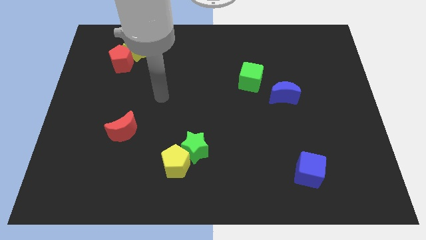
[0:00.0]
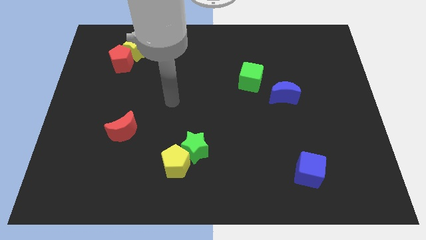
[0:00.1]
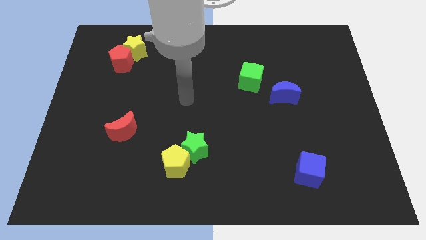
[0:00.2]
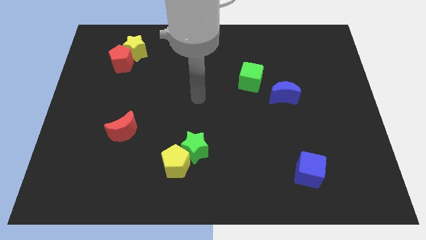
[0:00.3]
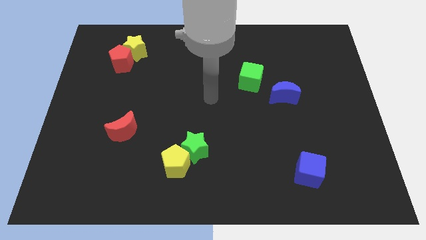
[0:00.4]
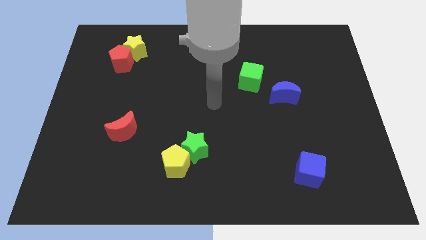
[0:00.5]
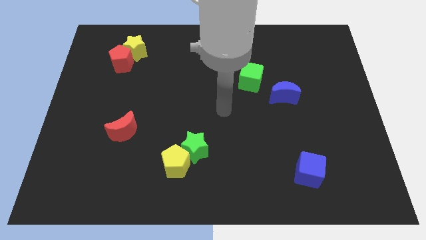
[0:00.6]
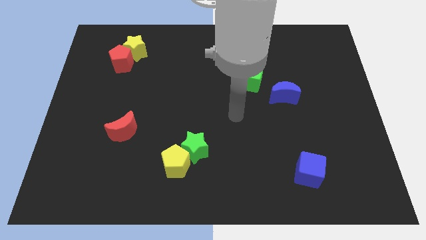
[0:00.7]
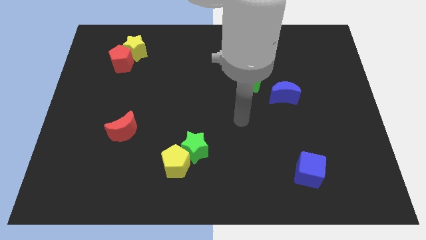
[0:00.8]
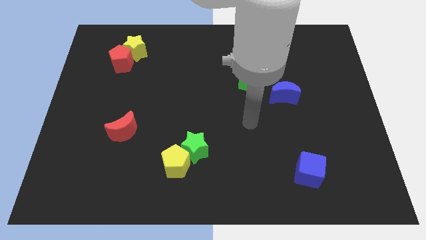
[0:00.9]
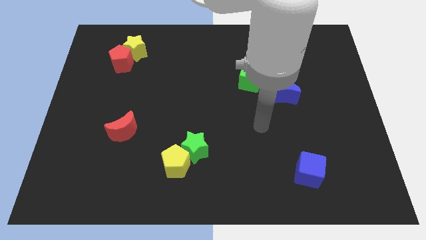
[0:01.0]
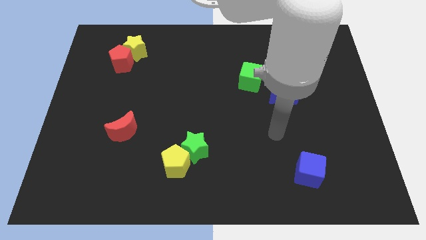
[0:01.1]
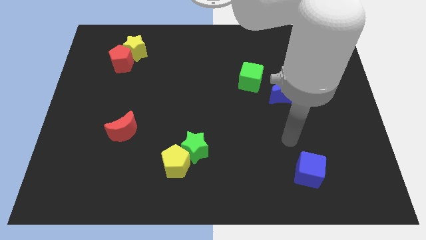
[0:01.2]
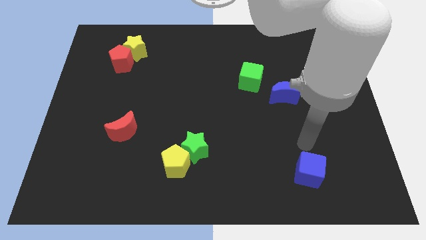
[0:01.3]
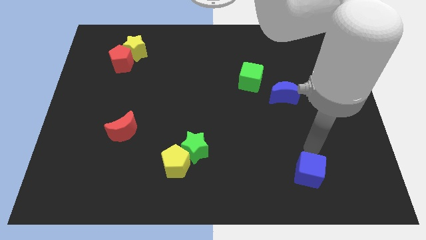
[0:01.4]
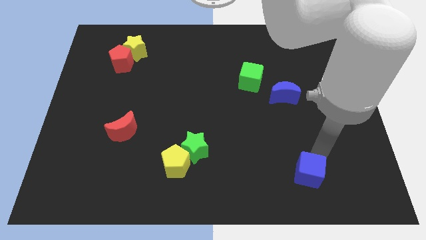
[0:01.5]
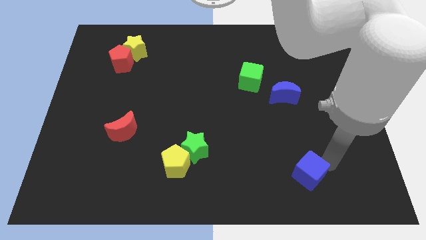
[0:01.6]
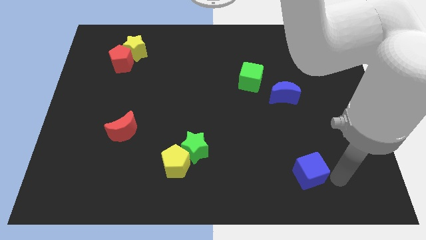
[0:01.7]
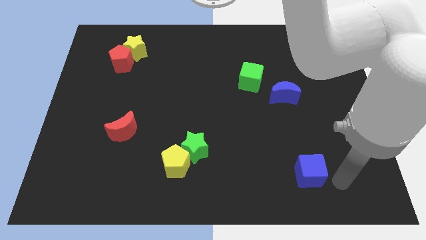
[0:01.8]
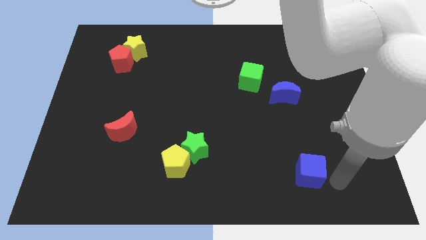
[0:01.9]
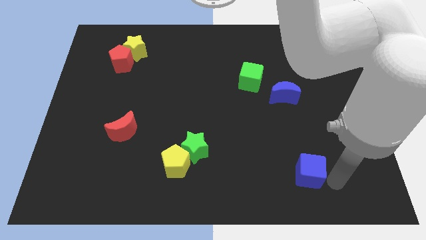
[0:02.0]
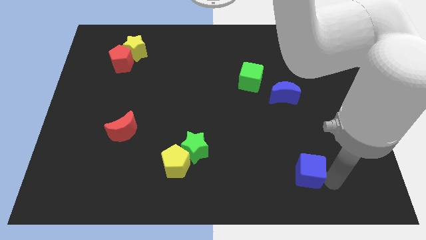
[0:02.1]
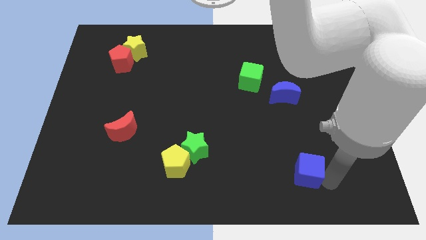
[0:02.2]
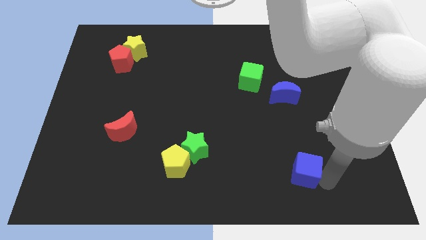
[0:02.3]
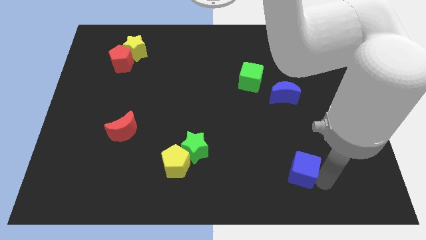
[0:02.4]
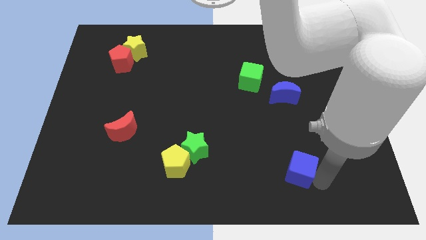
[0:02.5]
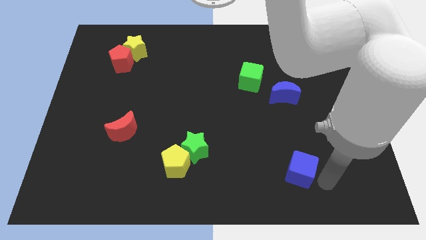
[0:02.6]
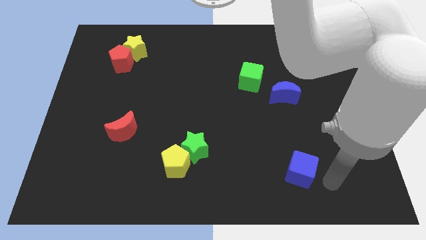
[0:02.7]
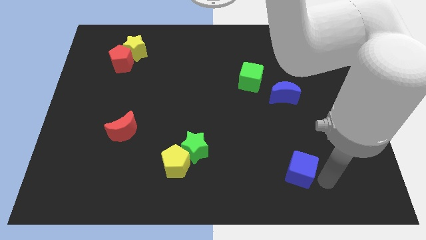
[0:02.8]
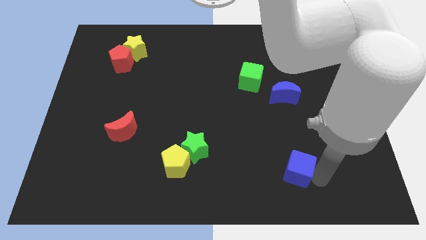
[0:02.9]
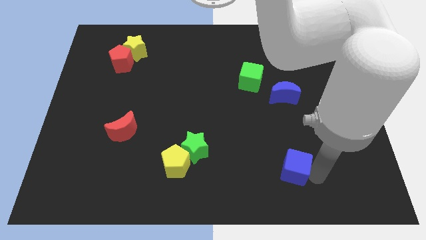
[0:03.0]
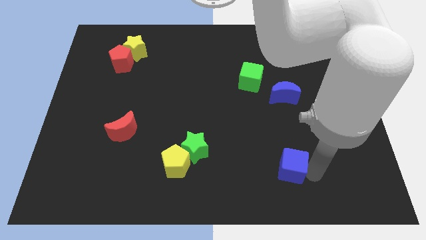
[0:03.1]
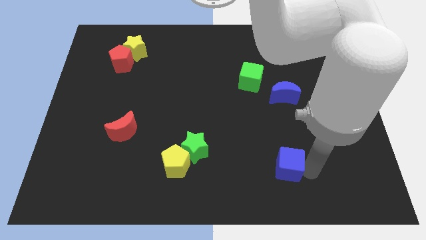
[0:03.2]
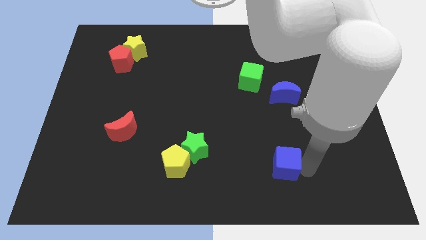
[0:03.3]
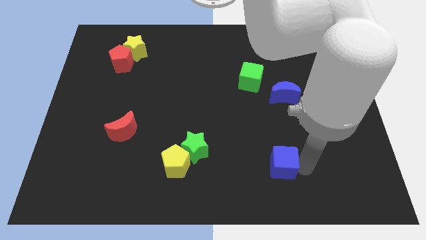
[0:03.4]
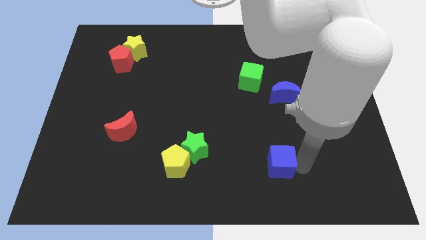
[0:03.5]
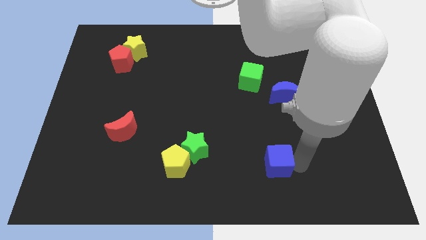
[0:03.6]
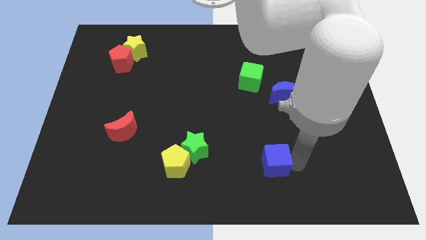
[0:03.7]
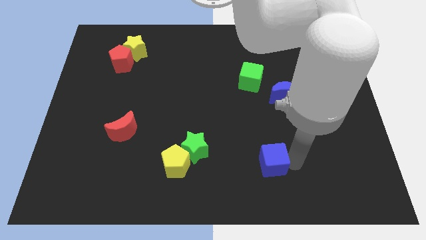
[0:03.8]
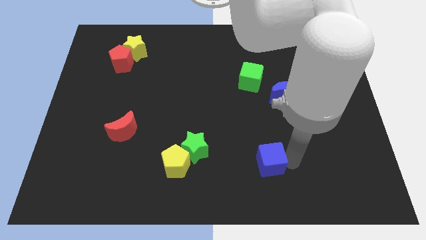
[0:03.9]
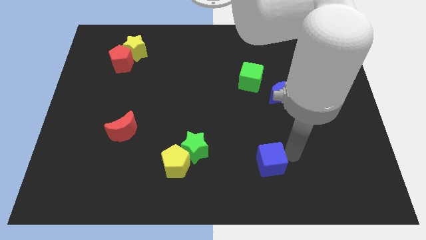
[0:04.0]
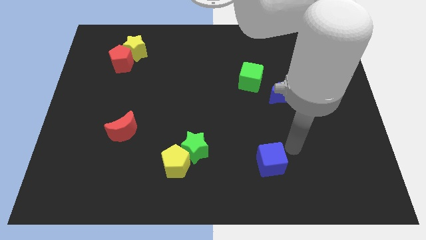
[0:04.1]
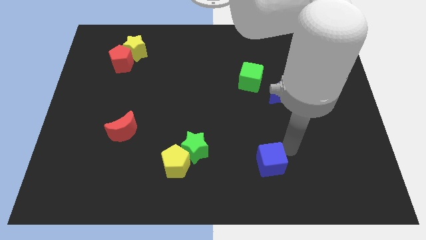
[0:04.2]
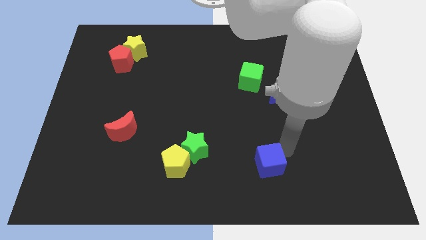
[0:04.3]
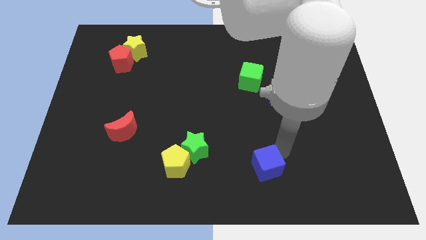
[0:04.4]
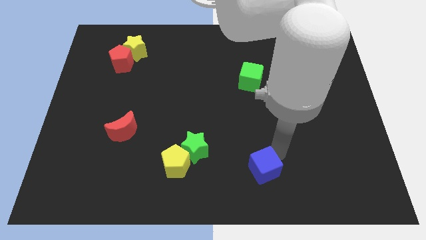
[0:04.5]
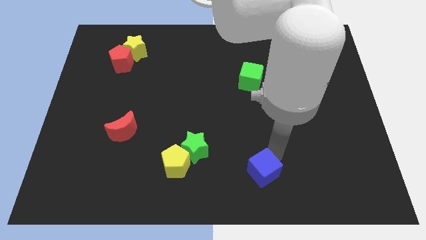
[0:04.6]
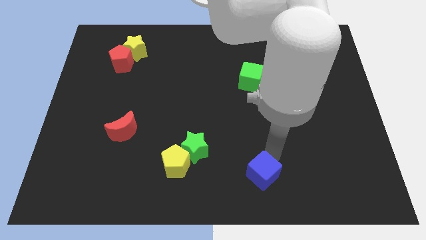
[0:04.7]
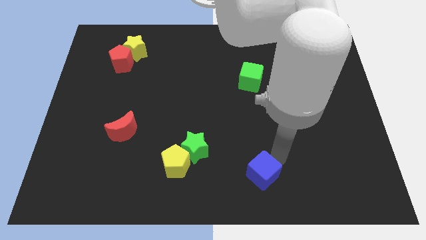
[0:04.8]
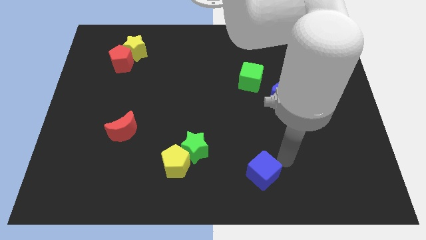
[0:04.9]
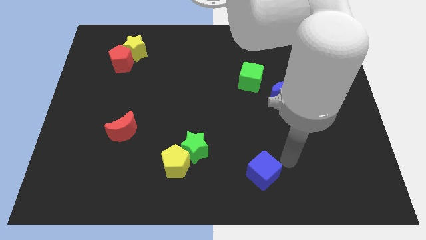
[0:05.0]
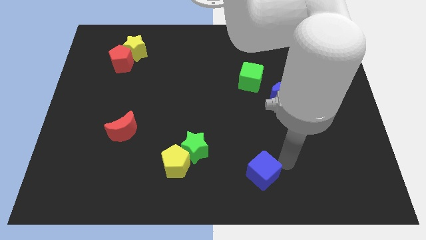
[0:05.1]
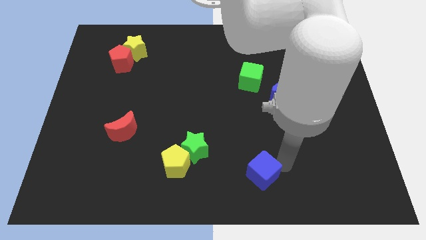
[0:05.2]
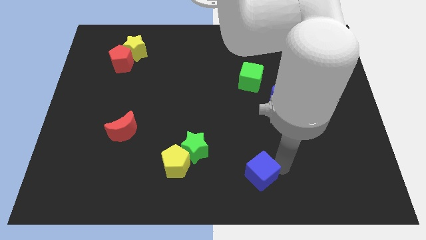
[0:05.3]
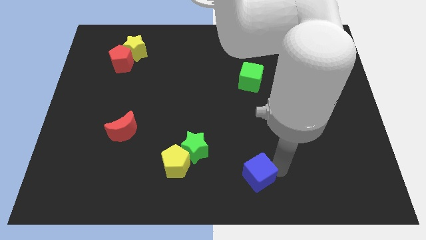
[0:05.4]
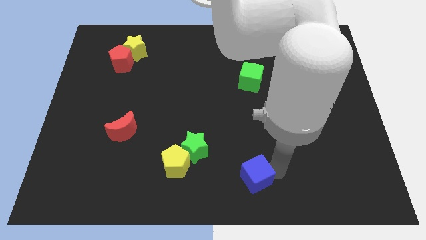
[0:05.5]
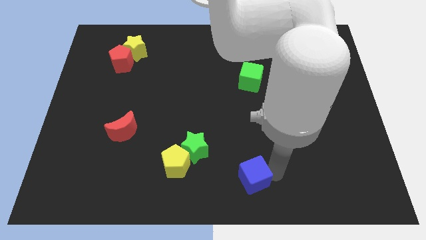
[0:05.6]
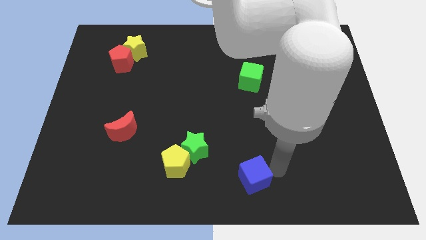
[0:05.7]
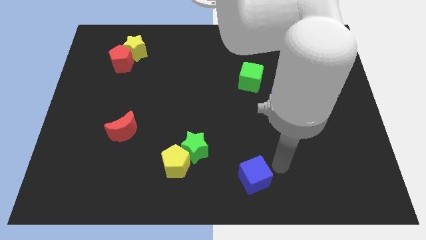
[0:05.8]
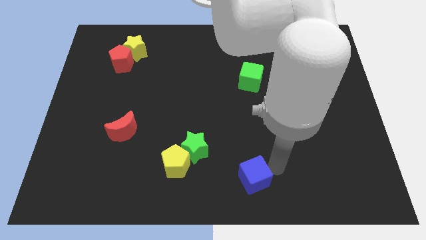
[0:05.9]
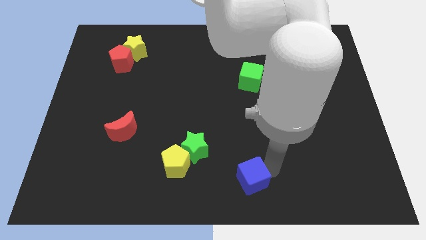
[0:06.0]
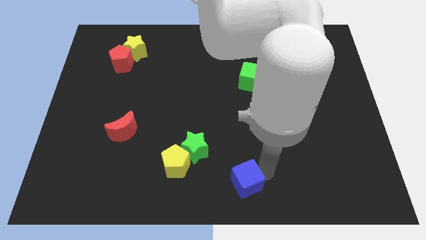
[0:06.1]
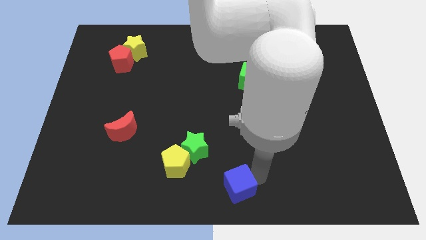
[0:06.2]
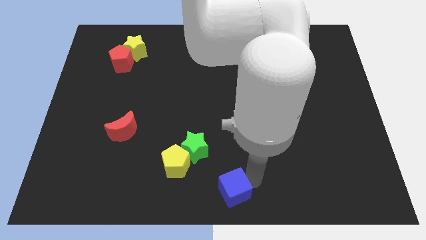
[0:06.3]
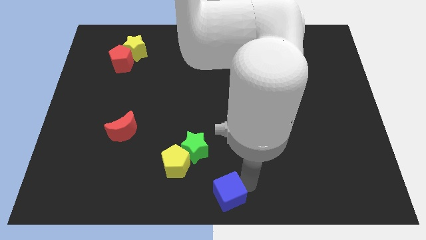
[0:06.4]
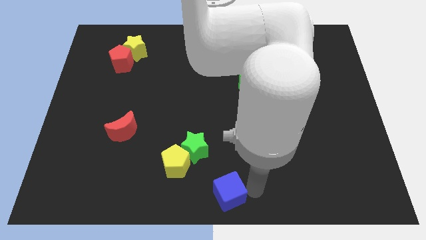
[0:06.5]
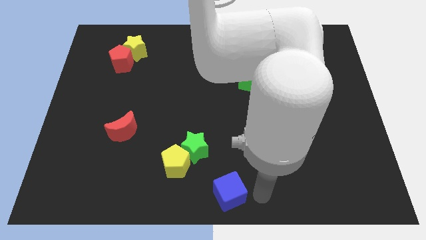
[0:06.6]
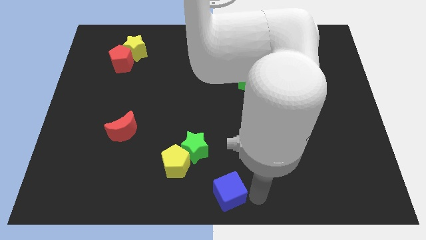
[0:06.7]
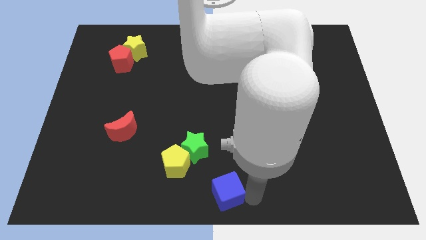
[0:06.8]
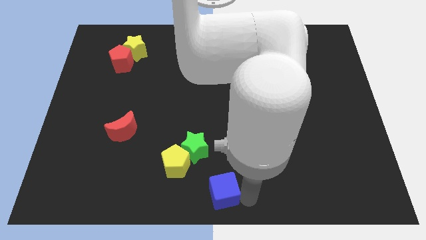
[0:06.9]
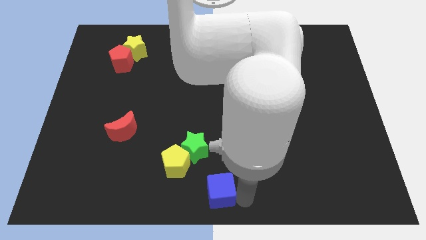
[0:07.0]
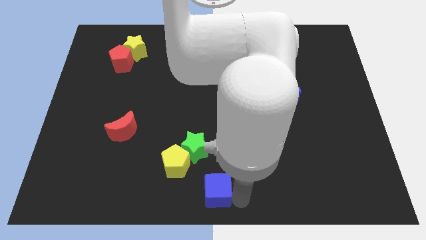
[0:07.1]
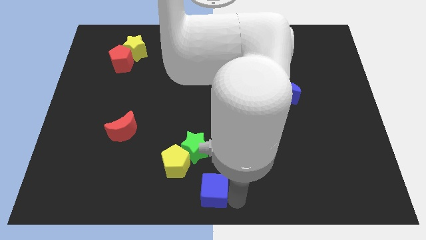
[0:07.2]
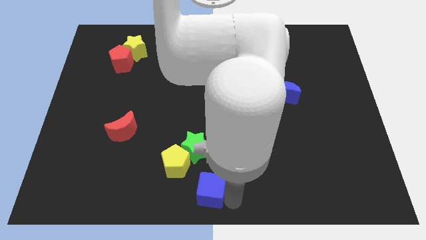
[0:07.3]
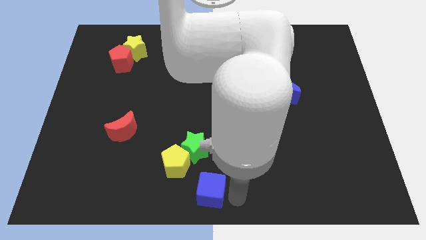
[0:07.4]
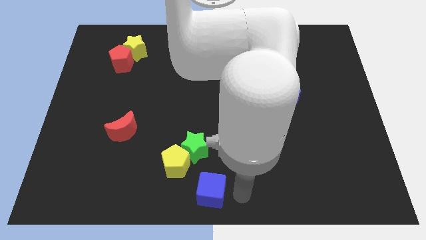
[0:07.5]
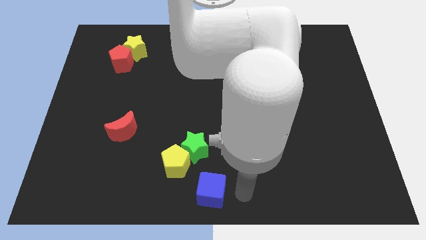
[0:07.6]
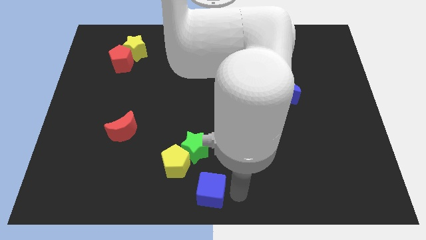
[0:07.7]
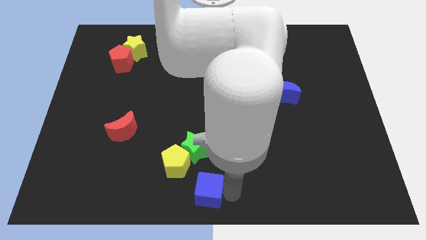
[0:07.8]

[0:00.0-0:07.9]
push the blue cube to the left

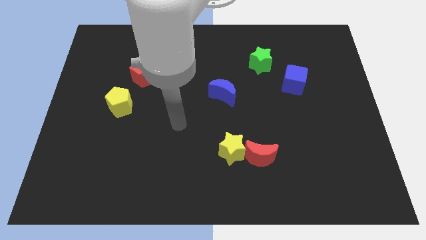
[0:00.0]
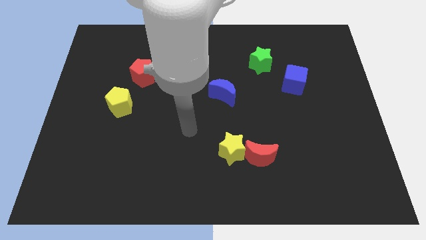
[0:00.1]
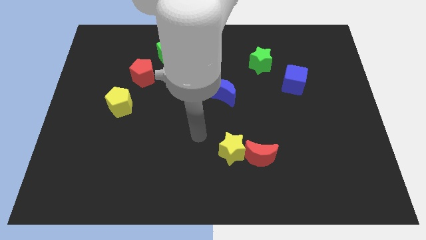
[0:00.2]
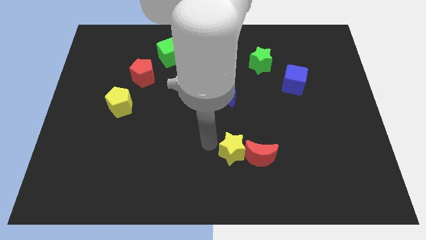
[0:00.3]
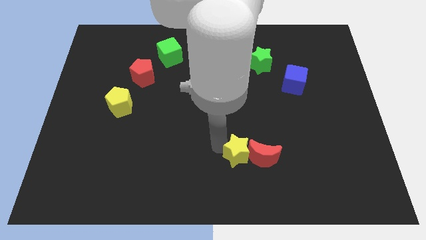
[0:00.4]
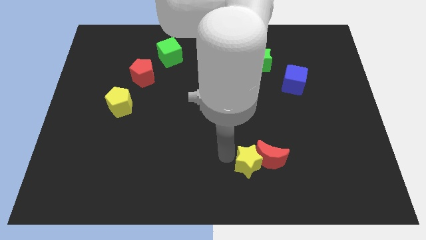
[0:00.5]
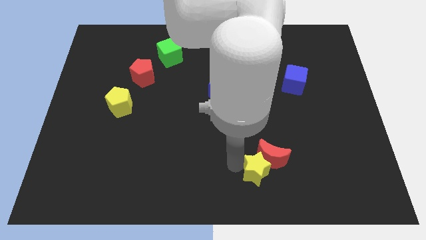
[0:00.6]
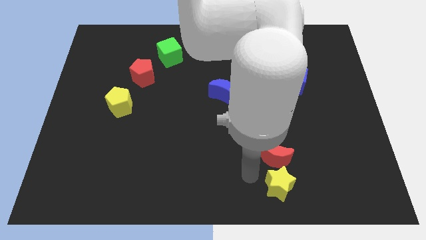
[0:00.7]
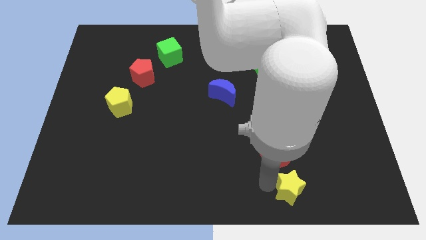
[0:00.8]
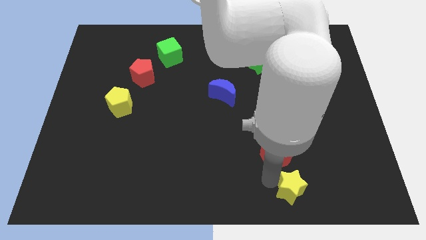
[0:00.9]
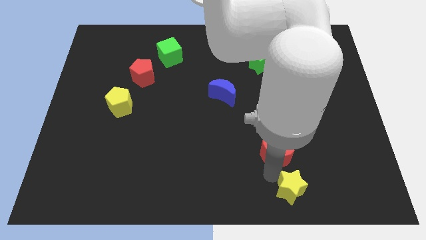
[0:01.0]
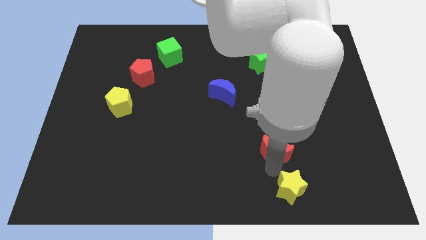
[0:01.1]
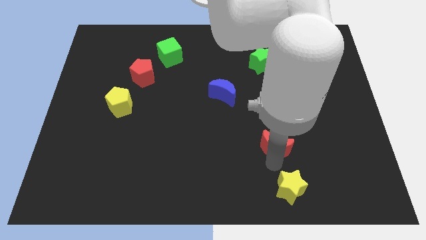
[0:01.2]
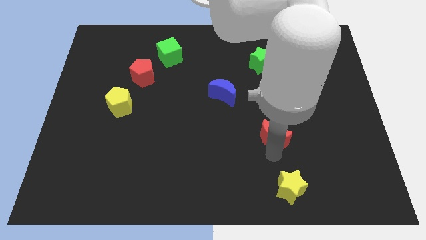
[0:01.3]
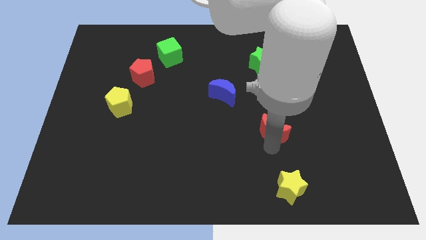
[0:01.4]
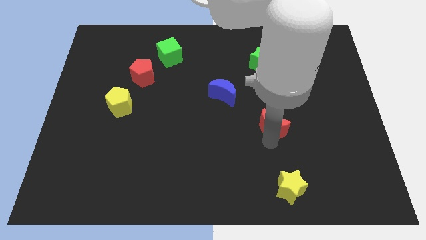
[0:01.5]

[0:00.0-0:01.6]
slide the red moon somewhat up and then right
